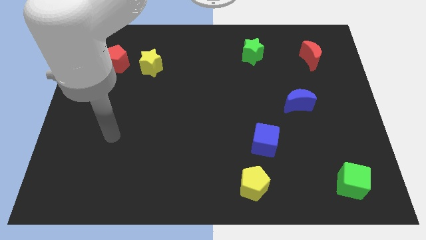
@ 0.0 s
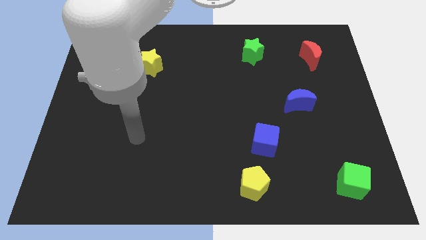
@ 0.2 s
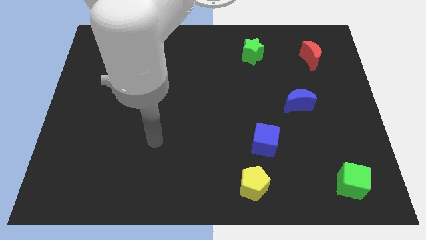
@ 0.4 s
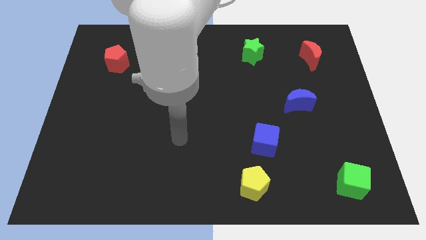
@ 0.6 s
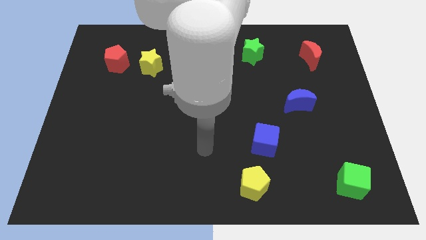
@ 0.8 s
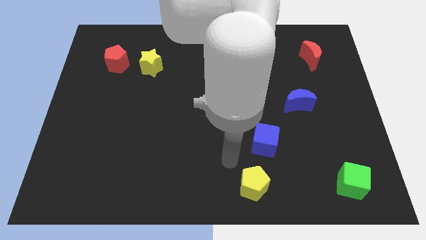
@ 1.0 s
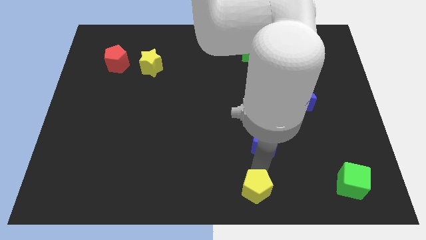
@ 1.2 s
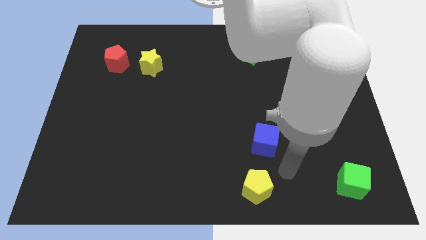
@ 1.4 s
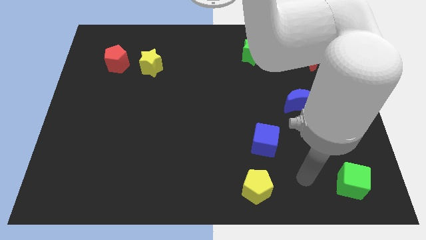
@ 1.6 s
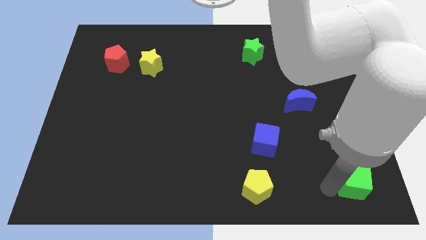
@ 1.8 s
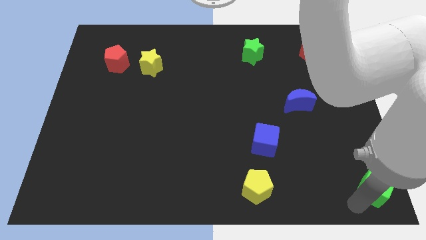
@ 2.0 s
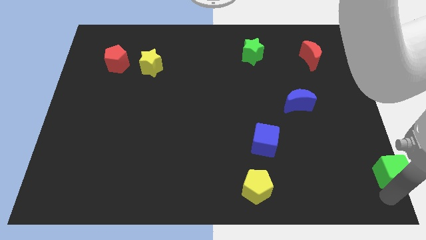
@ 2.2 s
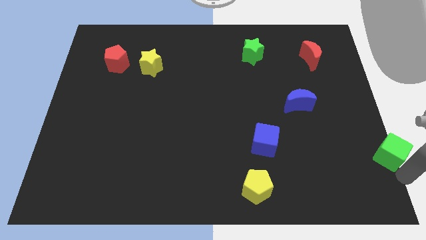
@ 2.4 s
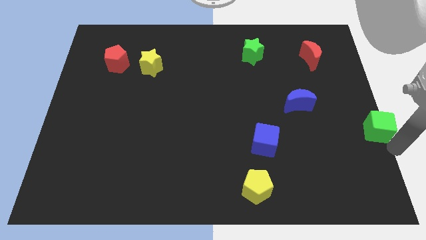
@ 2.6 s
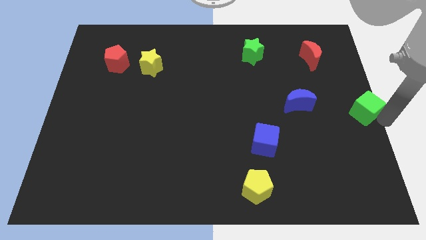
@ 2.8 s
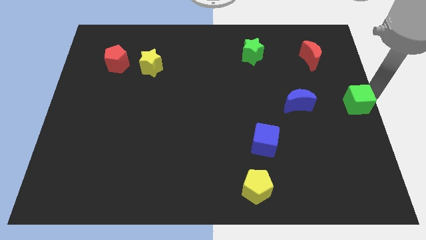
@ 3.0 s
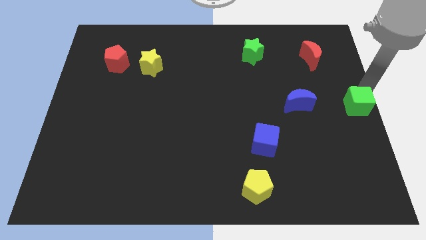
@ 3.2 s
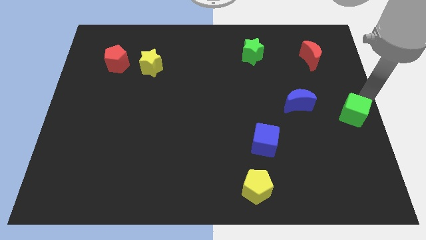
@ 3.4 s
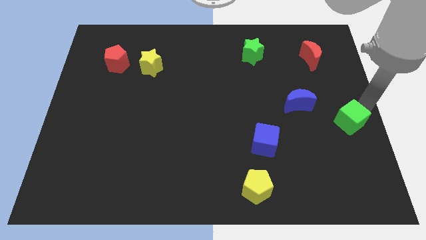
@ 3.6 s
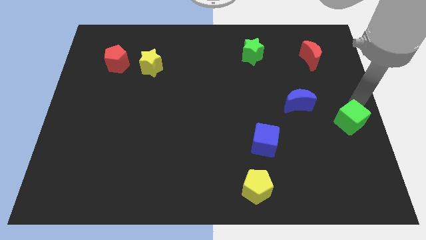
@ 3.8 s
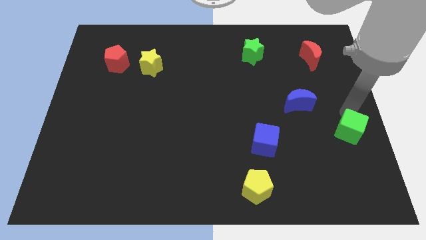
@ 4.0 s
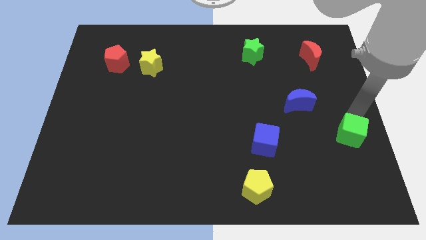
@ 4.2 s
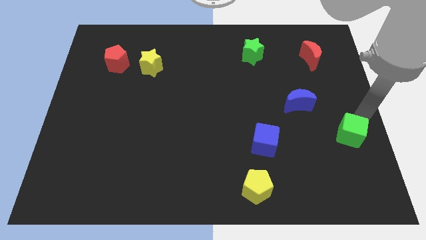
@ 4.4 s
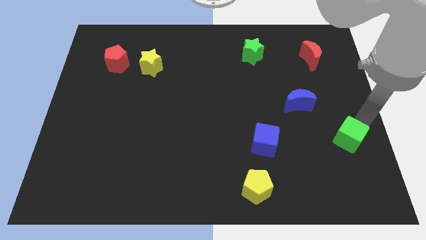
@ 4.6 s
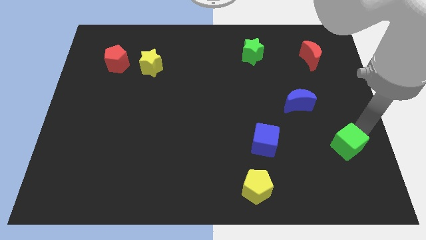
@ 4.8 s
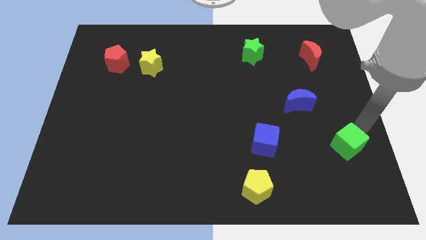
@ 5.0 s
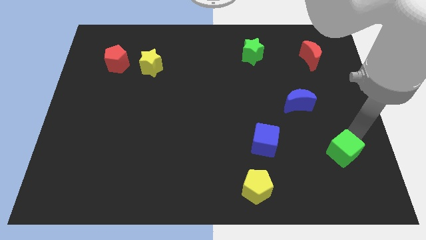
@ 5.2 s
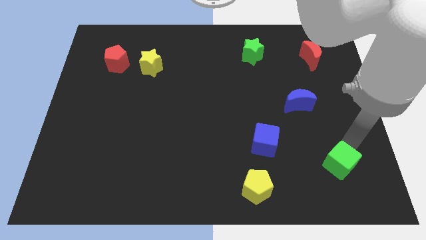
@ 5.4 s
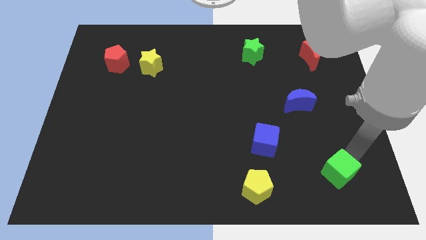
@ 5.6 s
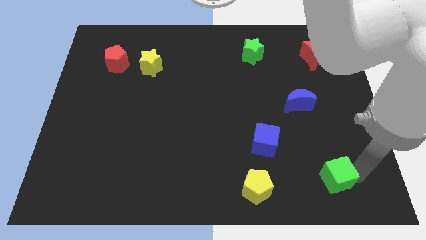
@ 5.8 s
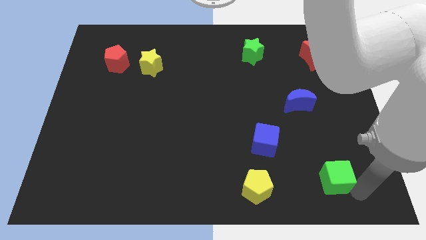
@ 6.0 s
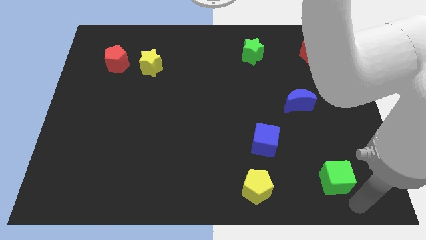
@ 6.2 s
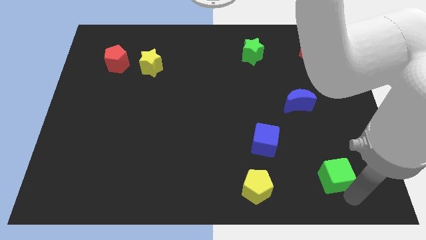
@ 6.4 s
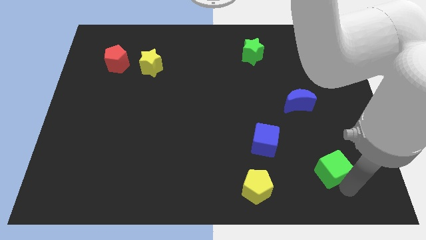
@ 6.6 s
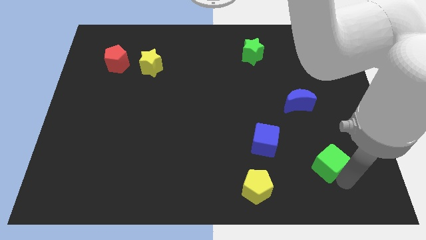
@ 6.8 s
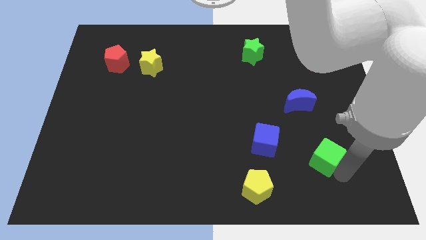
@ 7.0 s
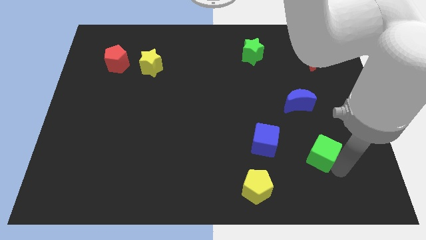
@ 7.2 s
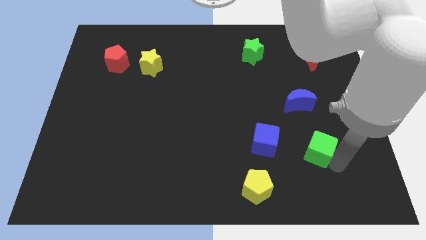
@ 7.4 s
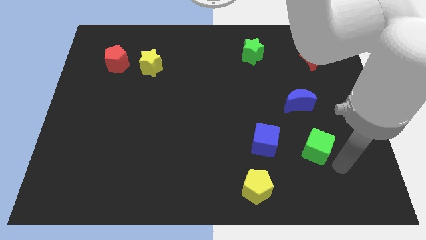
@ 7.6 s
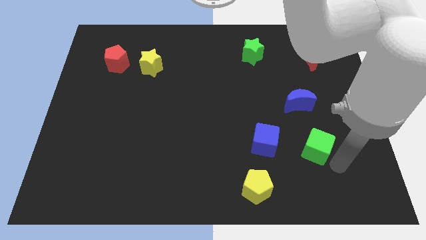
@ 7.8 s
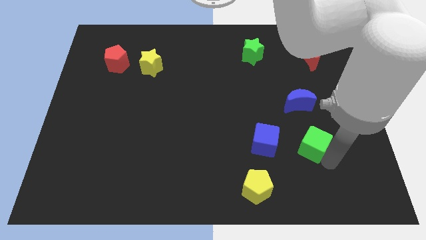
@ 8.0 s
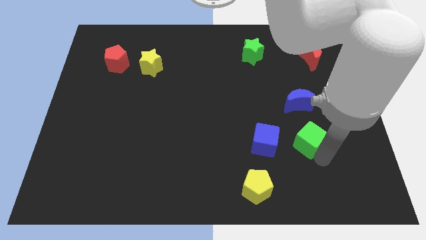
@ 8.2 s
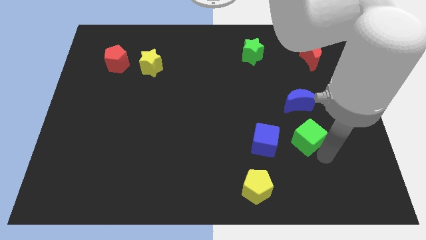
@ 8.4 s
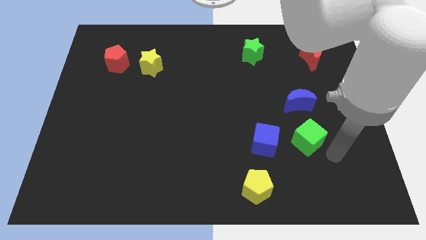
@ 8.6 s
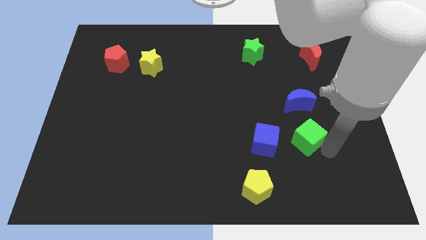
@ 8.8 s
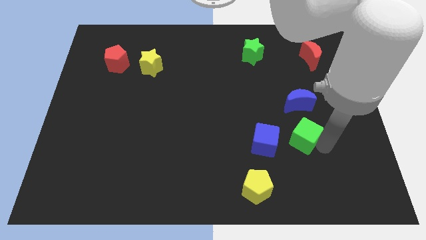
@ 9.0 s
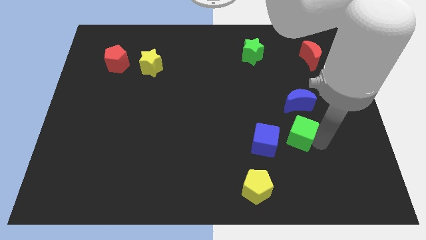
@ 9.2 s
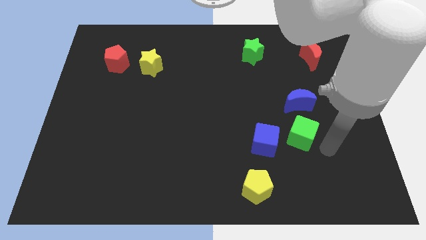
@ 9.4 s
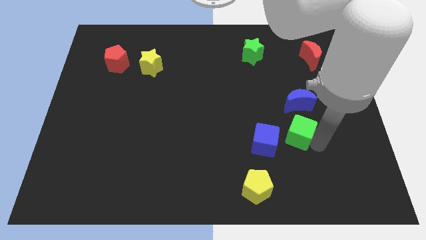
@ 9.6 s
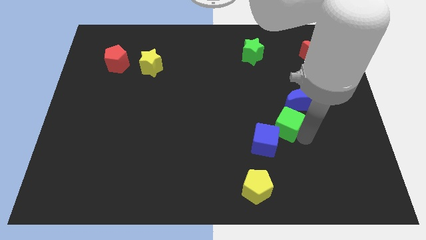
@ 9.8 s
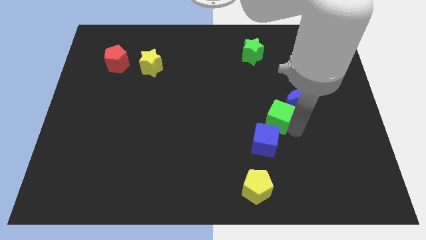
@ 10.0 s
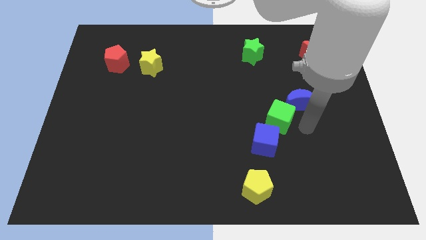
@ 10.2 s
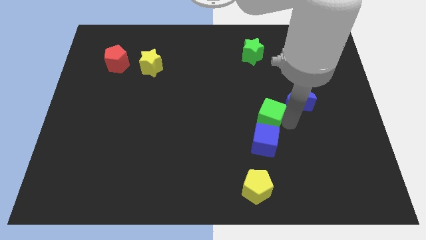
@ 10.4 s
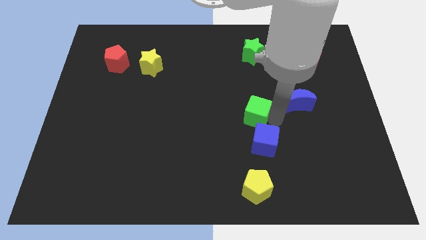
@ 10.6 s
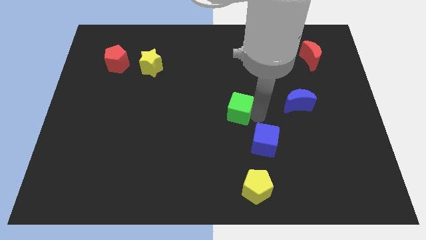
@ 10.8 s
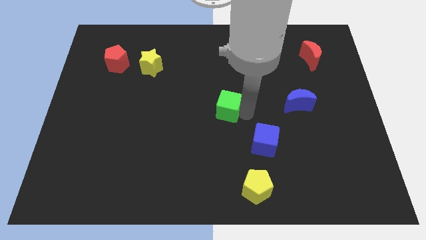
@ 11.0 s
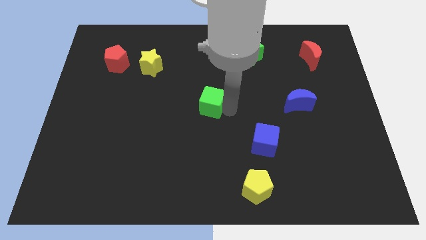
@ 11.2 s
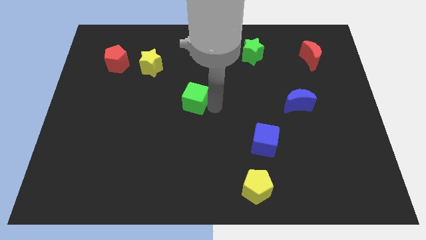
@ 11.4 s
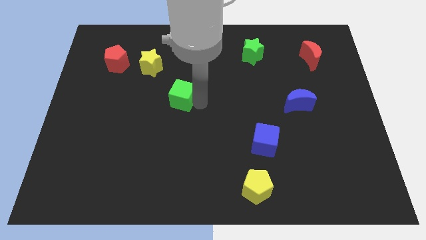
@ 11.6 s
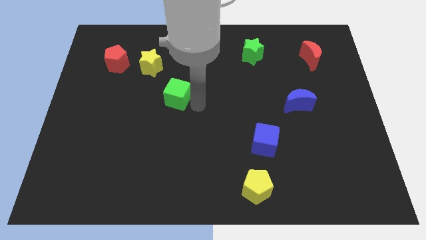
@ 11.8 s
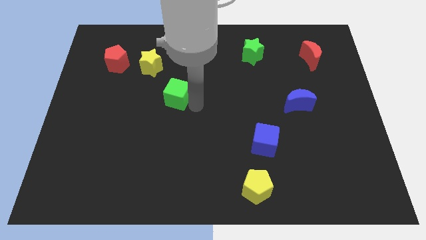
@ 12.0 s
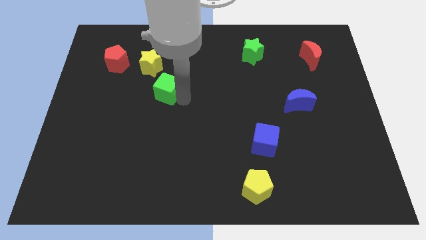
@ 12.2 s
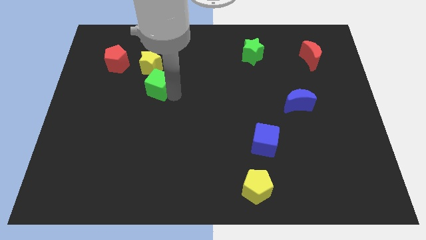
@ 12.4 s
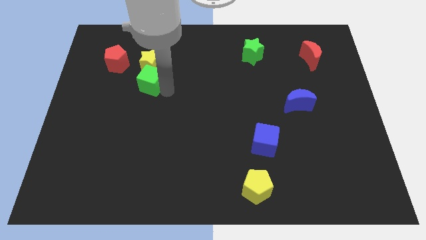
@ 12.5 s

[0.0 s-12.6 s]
slide the green cube to the bottom left side of the yellow star

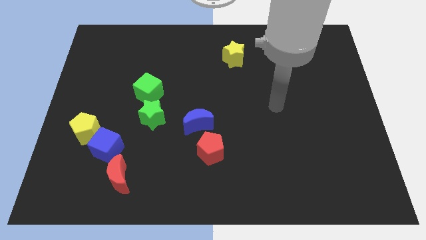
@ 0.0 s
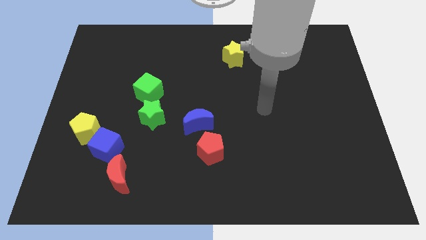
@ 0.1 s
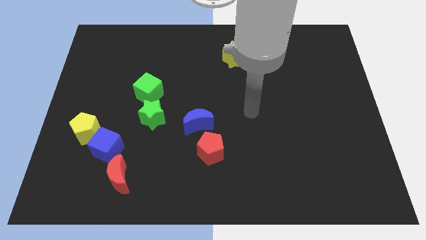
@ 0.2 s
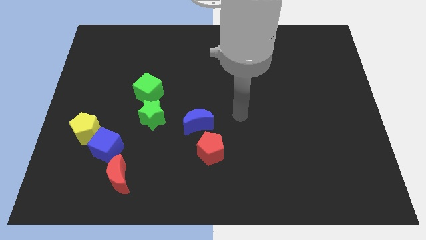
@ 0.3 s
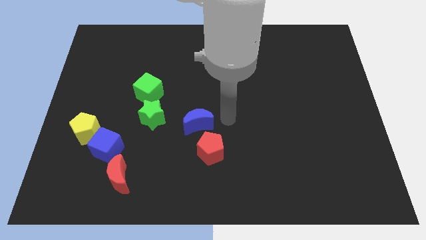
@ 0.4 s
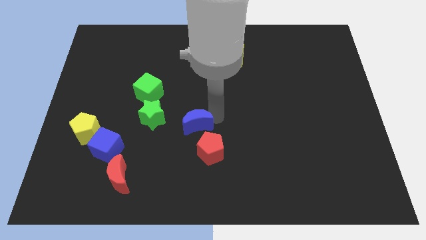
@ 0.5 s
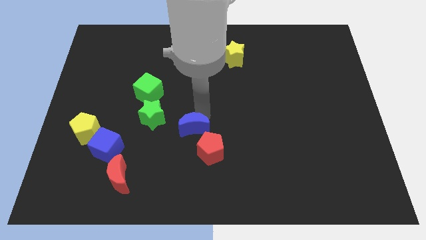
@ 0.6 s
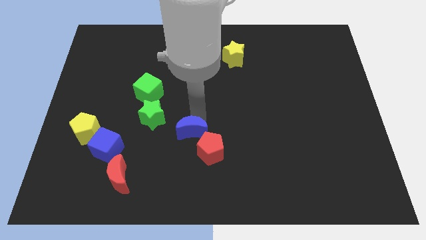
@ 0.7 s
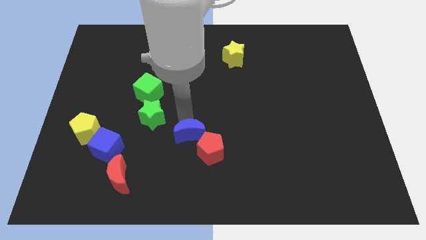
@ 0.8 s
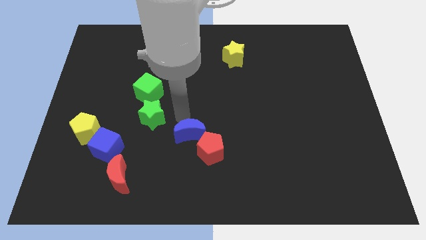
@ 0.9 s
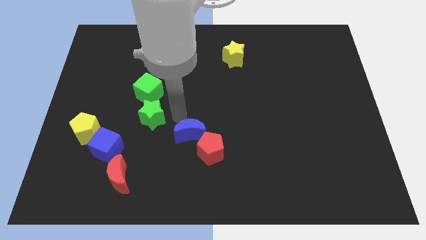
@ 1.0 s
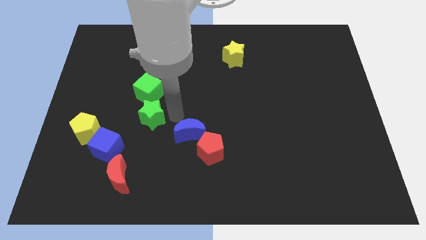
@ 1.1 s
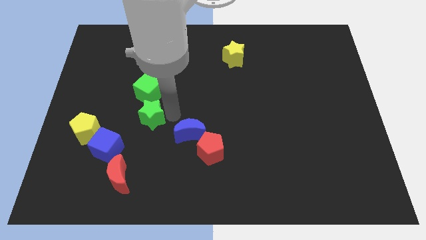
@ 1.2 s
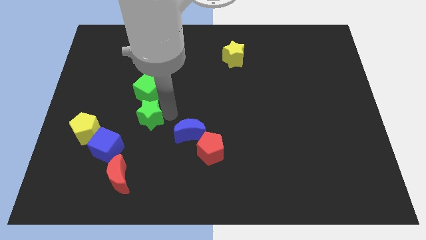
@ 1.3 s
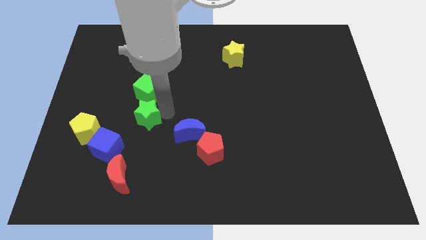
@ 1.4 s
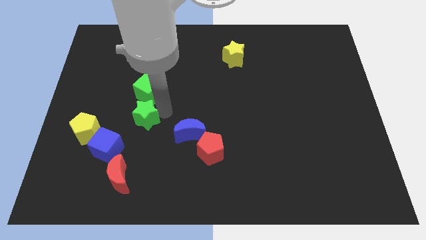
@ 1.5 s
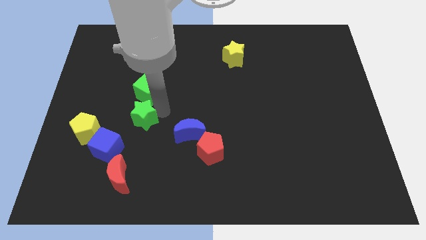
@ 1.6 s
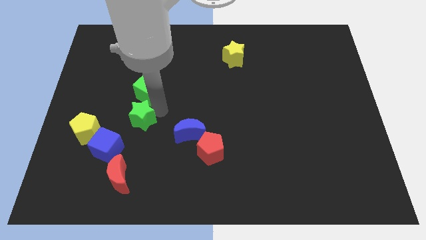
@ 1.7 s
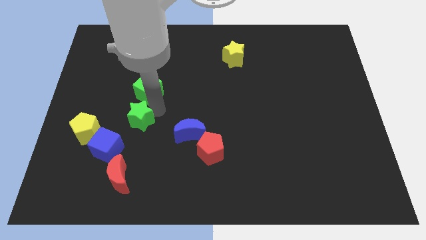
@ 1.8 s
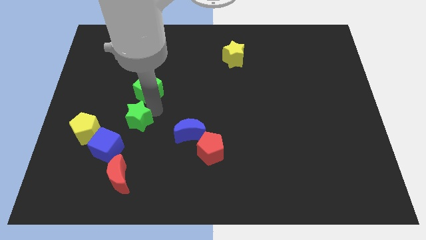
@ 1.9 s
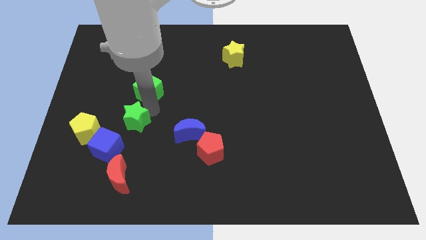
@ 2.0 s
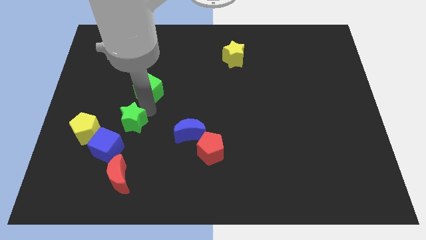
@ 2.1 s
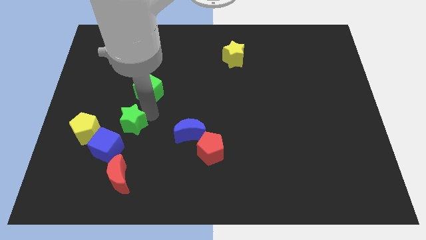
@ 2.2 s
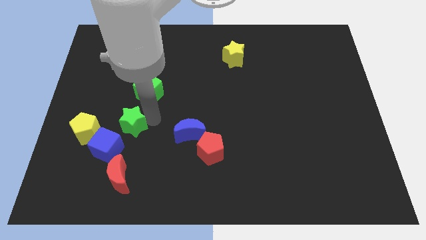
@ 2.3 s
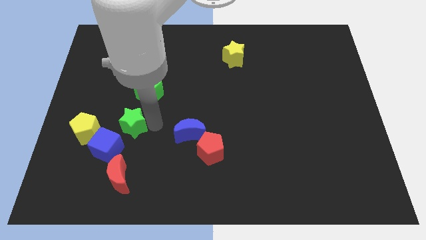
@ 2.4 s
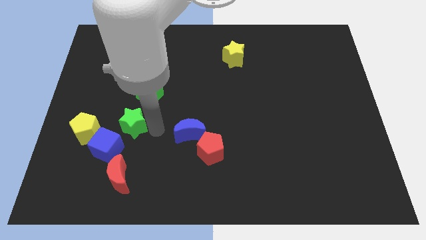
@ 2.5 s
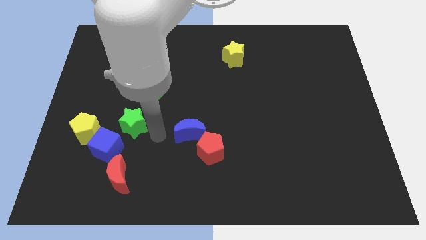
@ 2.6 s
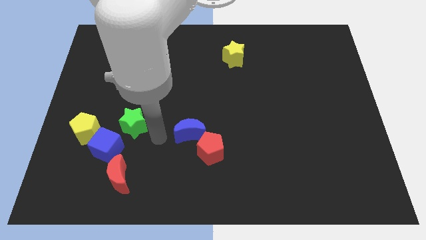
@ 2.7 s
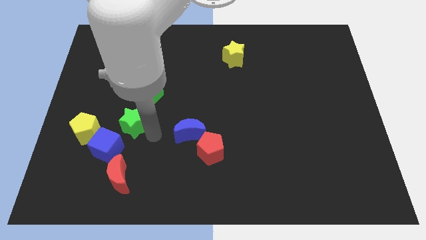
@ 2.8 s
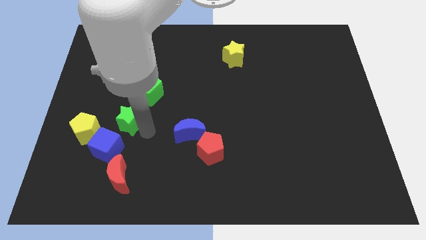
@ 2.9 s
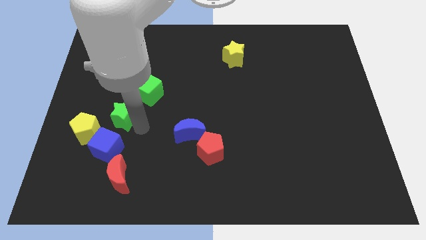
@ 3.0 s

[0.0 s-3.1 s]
put the green star diagonally up and to the right of the yellow pentagon
